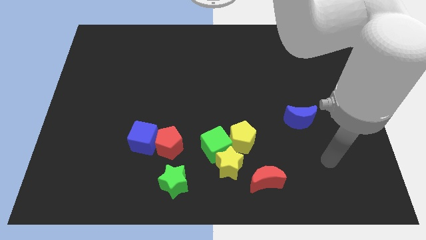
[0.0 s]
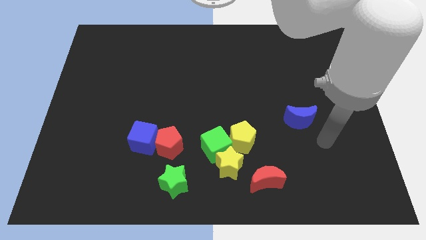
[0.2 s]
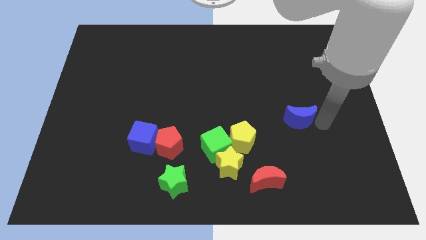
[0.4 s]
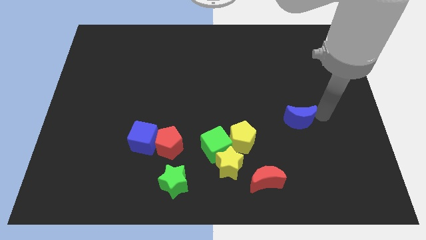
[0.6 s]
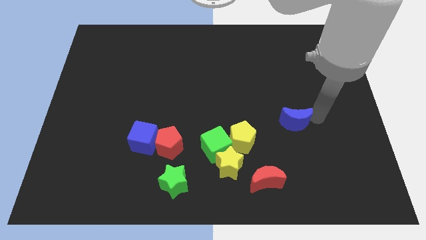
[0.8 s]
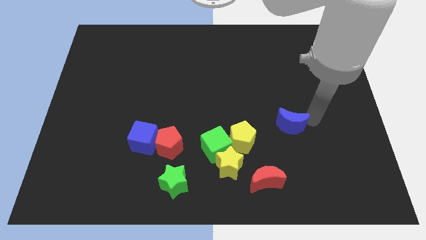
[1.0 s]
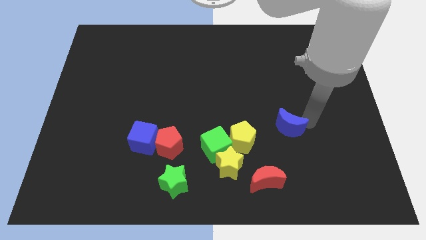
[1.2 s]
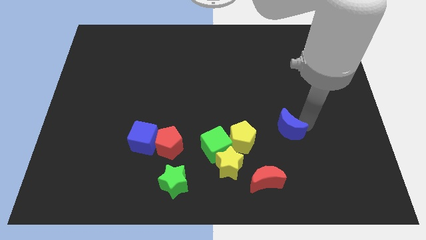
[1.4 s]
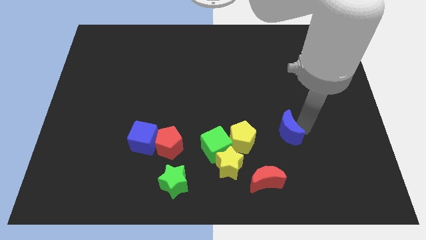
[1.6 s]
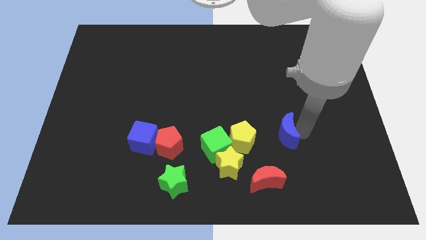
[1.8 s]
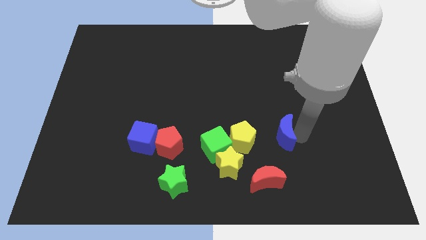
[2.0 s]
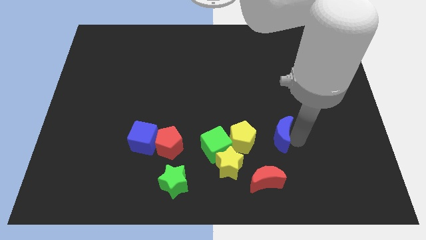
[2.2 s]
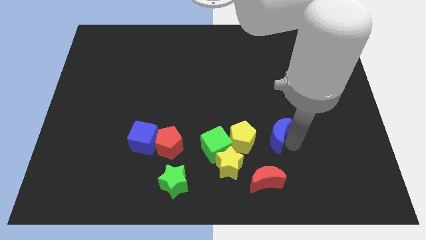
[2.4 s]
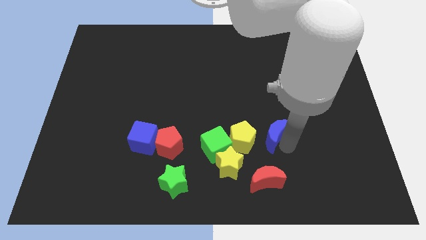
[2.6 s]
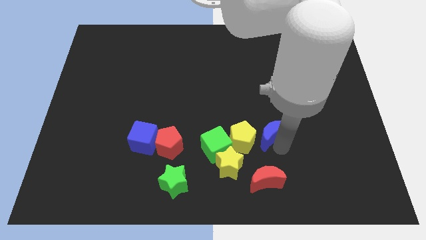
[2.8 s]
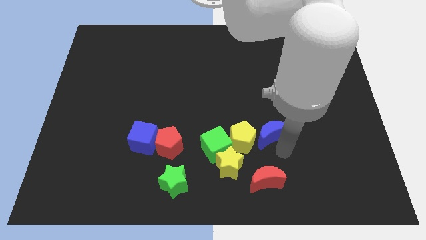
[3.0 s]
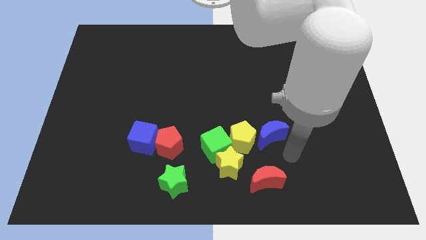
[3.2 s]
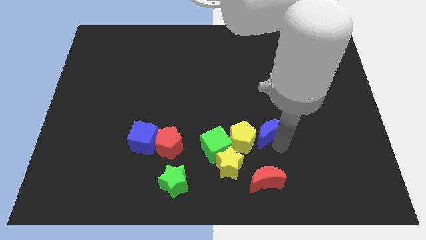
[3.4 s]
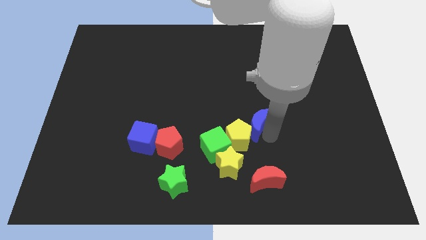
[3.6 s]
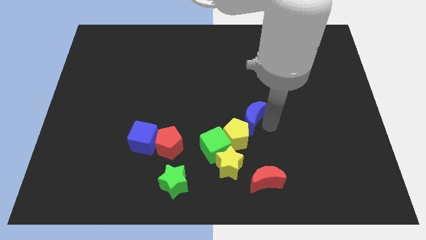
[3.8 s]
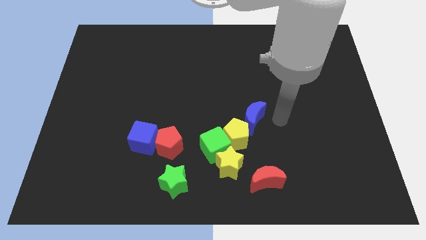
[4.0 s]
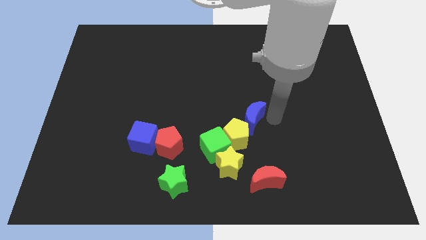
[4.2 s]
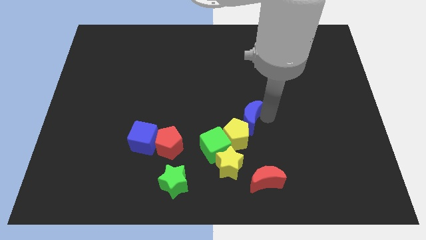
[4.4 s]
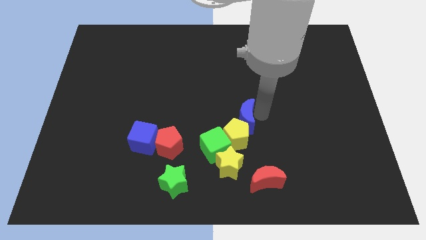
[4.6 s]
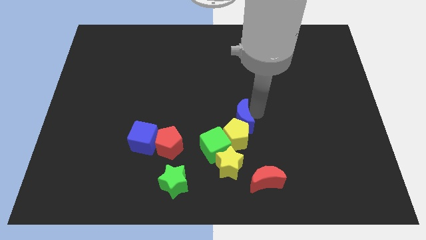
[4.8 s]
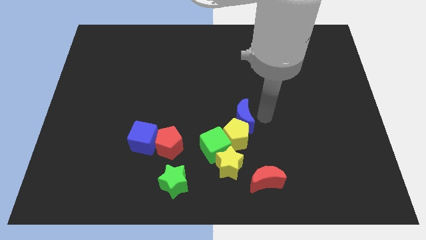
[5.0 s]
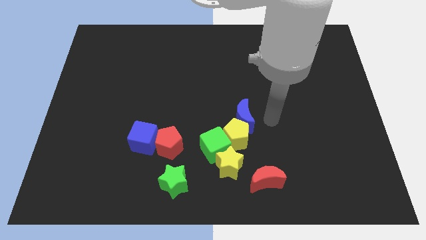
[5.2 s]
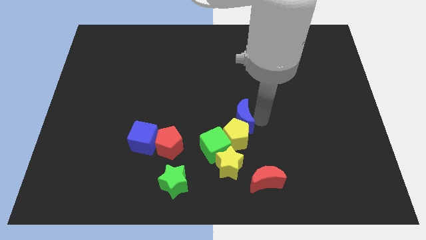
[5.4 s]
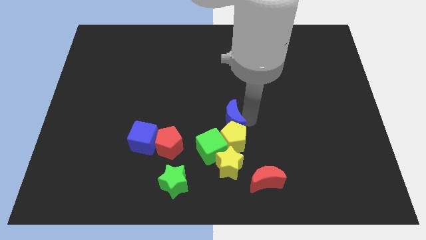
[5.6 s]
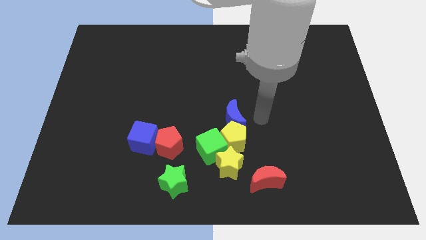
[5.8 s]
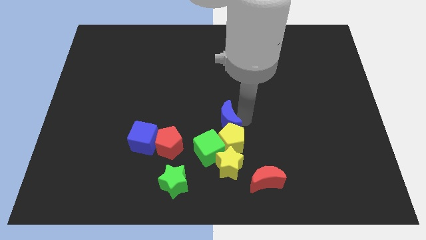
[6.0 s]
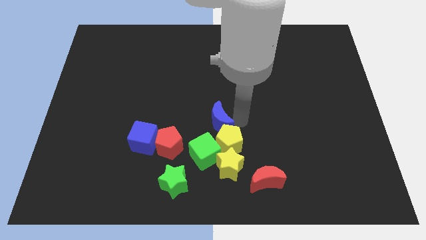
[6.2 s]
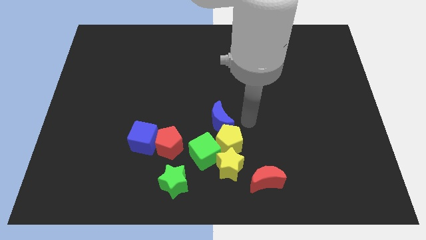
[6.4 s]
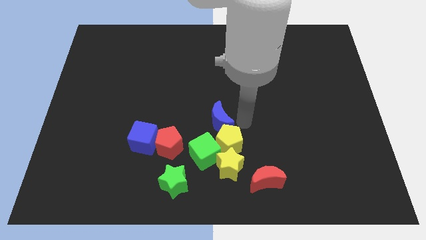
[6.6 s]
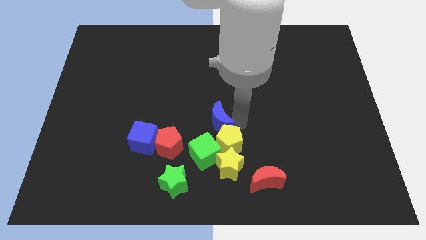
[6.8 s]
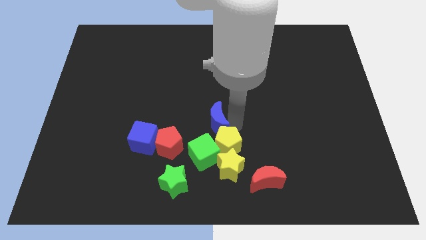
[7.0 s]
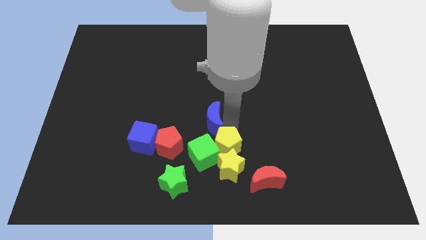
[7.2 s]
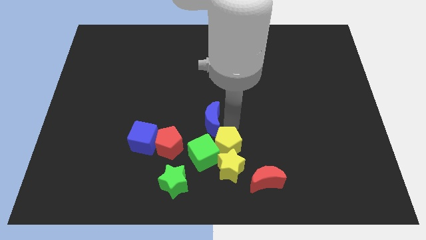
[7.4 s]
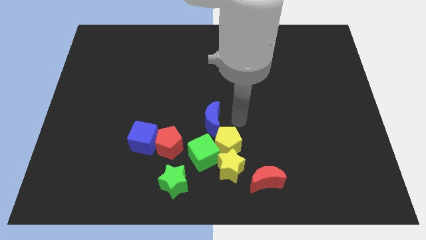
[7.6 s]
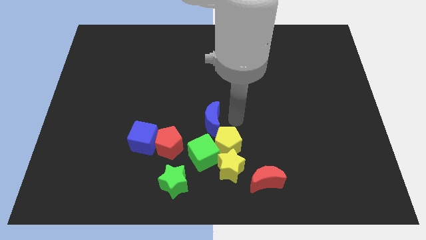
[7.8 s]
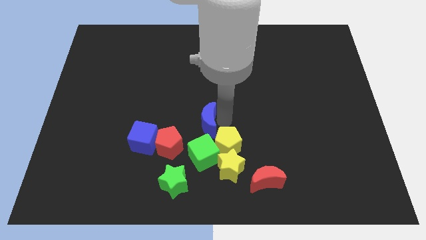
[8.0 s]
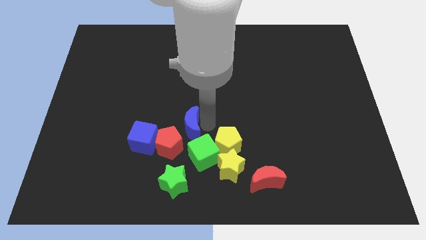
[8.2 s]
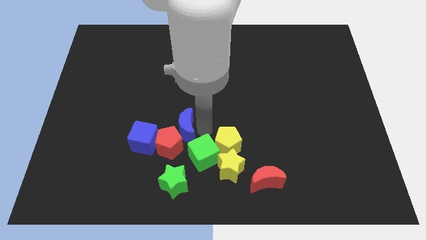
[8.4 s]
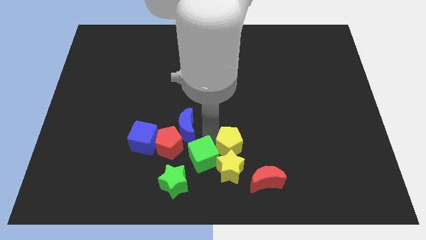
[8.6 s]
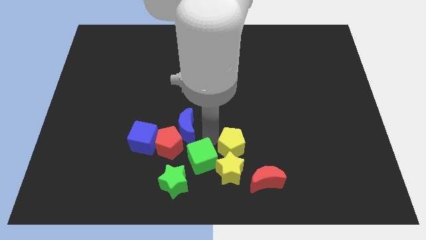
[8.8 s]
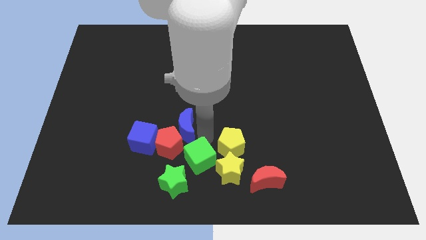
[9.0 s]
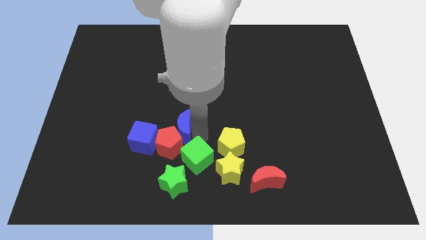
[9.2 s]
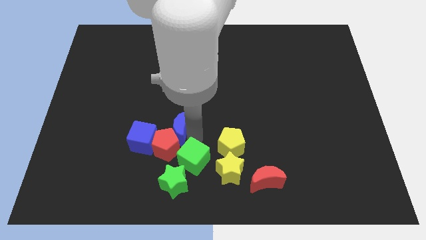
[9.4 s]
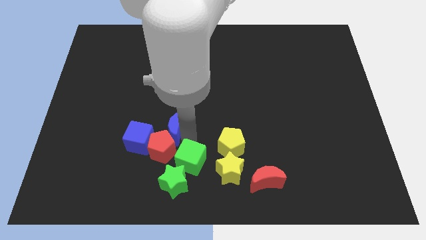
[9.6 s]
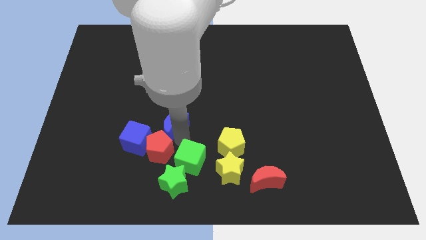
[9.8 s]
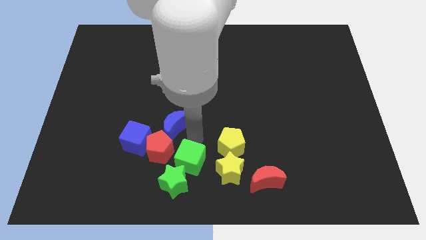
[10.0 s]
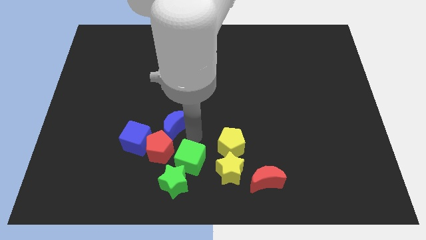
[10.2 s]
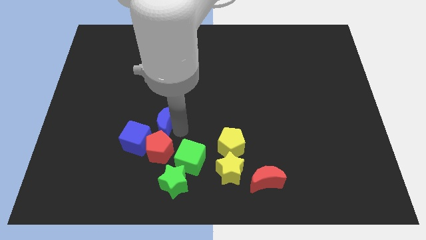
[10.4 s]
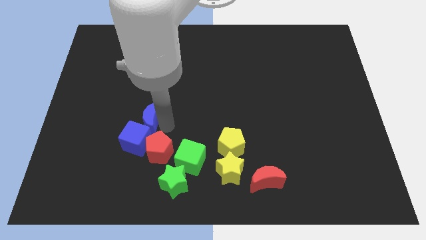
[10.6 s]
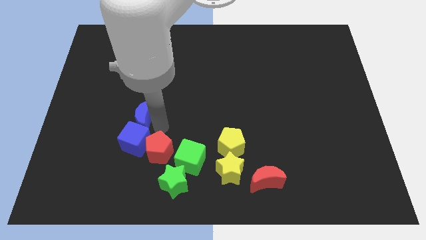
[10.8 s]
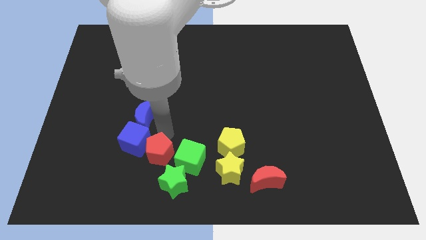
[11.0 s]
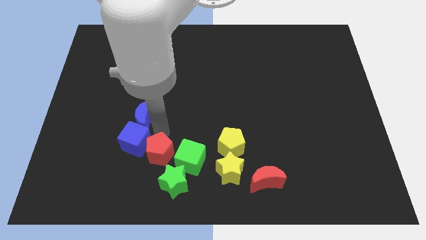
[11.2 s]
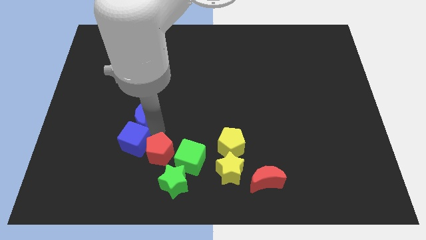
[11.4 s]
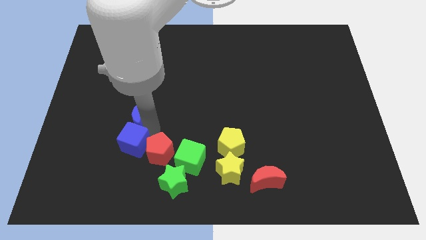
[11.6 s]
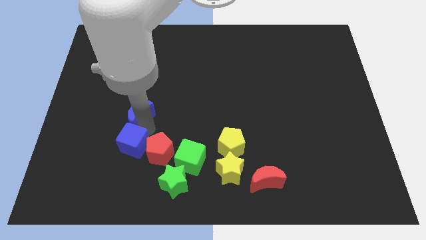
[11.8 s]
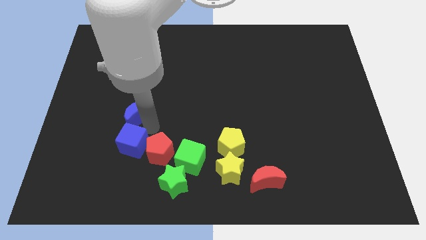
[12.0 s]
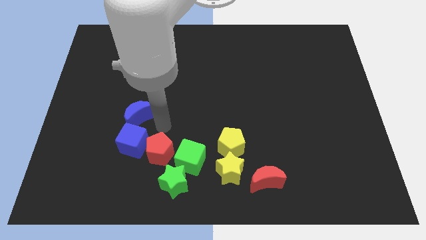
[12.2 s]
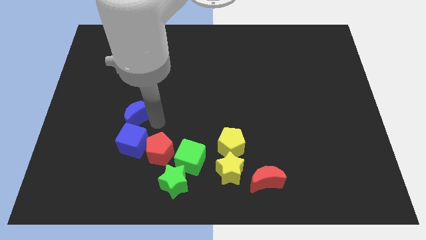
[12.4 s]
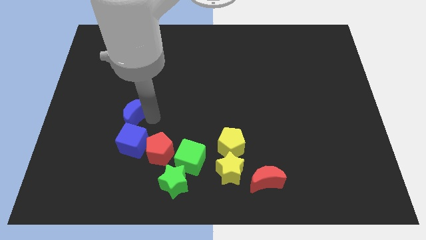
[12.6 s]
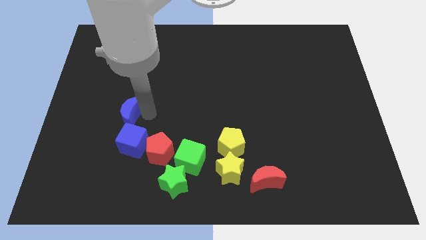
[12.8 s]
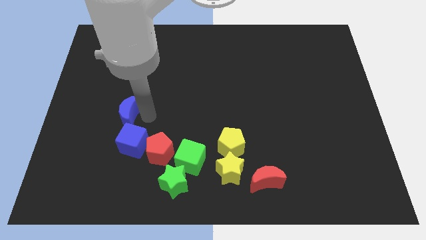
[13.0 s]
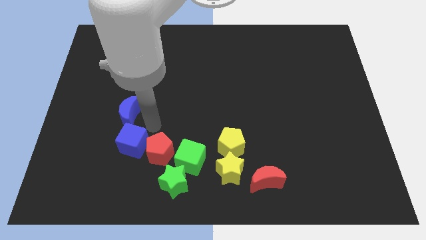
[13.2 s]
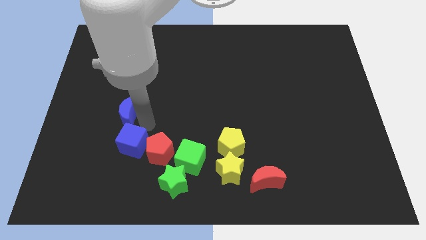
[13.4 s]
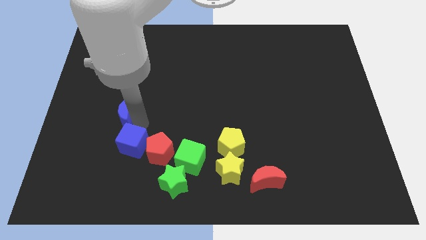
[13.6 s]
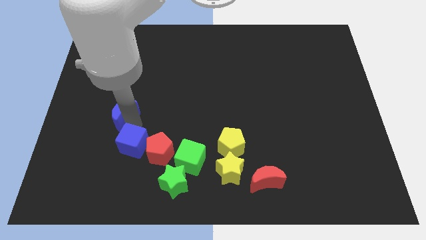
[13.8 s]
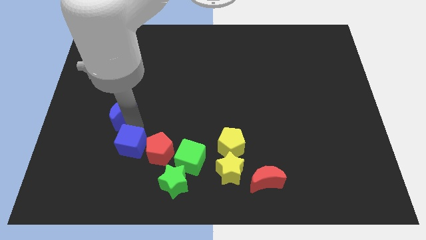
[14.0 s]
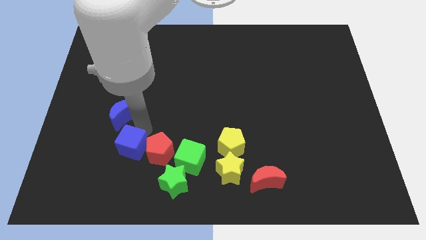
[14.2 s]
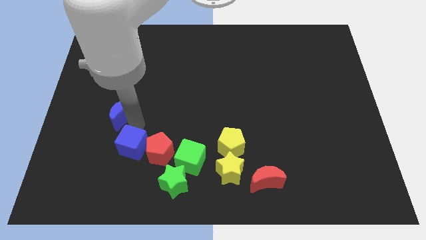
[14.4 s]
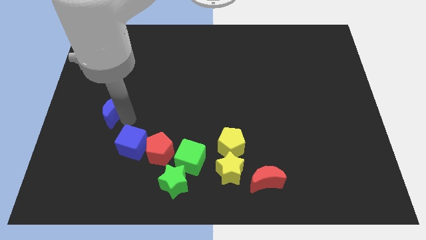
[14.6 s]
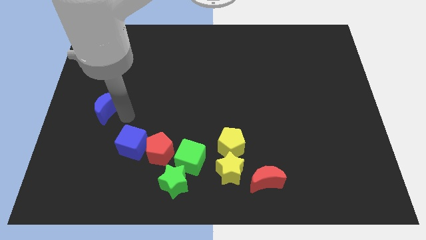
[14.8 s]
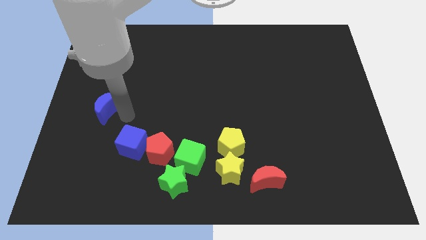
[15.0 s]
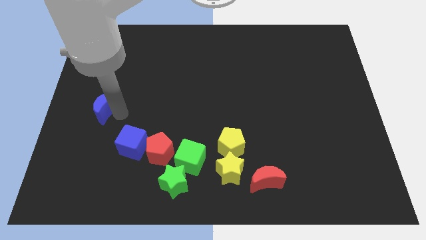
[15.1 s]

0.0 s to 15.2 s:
slide the blue moon to the center left
